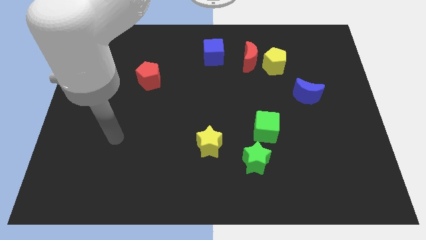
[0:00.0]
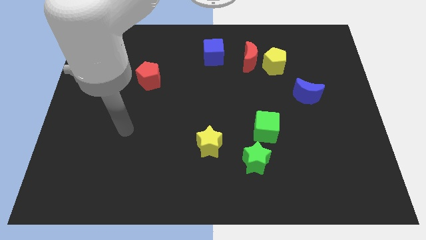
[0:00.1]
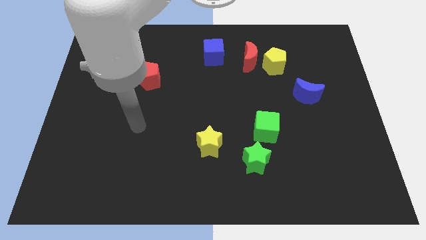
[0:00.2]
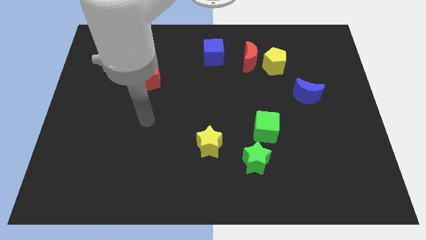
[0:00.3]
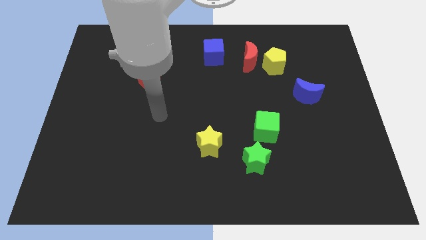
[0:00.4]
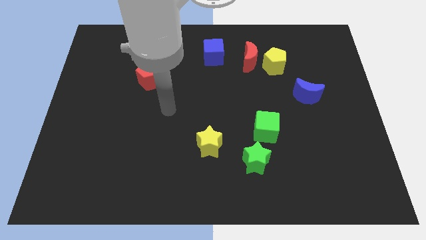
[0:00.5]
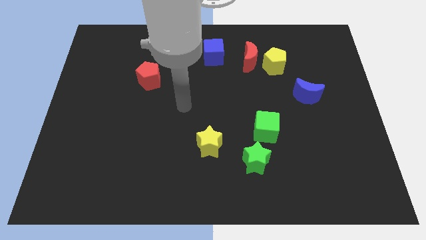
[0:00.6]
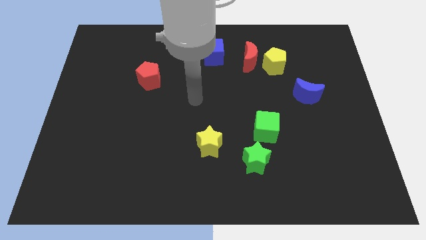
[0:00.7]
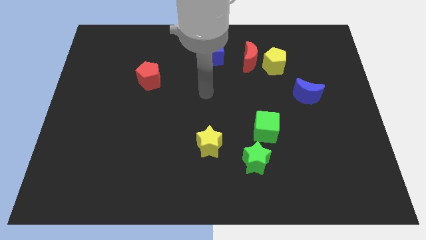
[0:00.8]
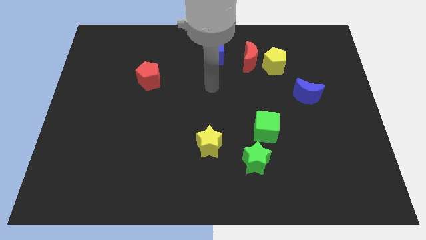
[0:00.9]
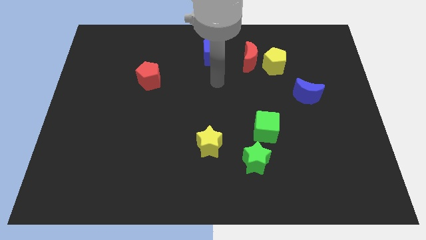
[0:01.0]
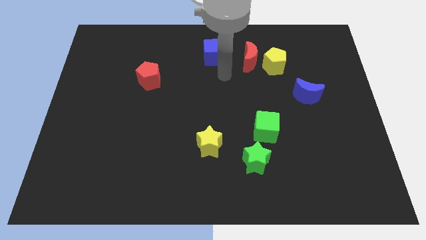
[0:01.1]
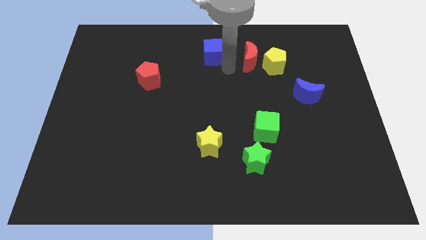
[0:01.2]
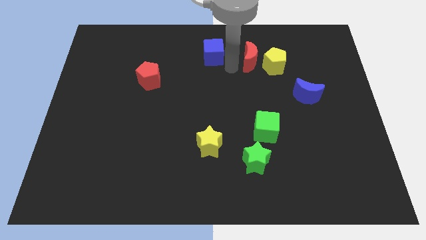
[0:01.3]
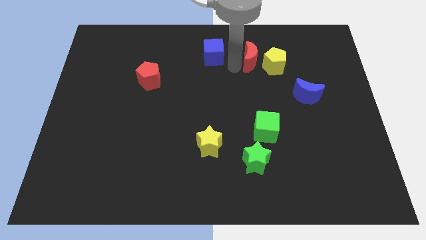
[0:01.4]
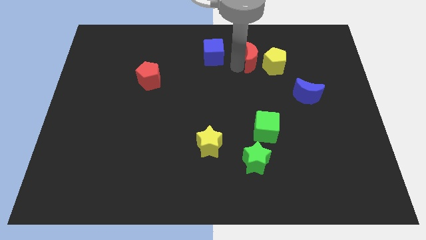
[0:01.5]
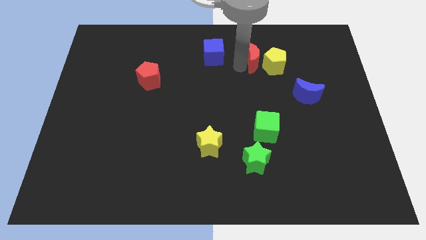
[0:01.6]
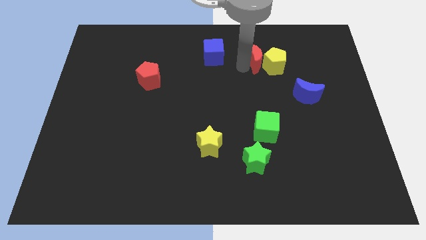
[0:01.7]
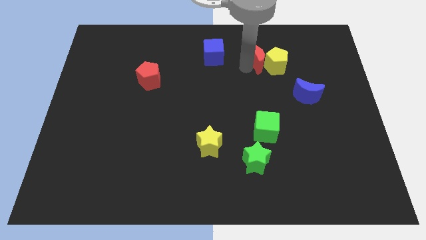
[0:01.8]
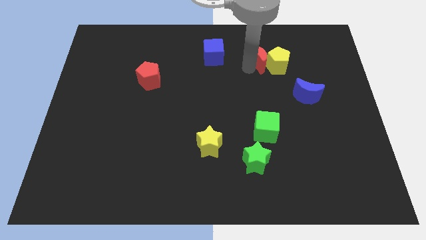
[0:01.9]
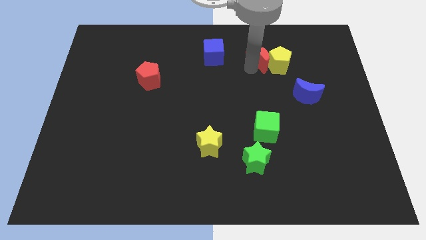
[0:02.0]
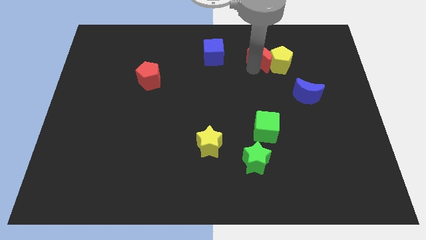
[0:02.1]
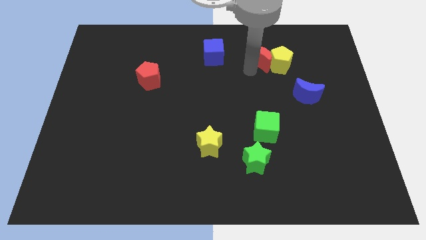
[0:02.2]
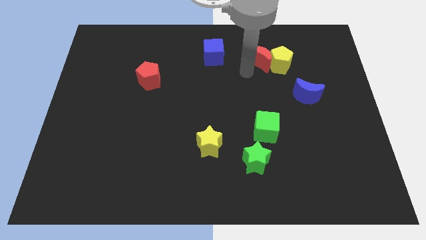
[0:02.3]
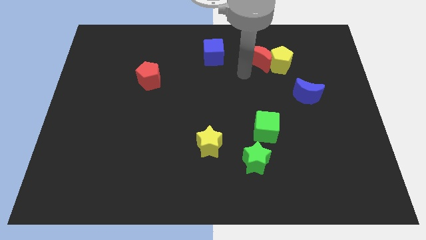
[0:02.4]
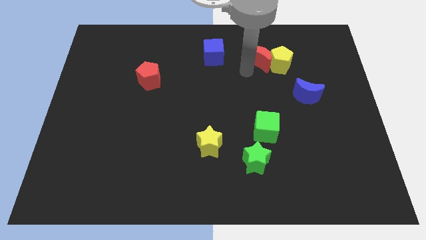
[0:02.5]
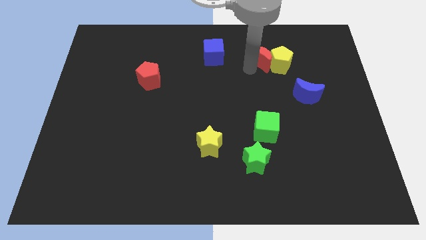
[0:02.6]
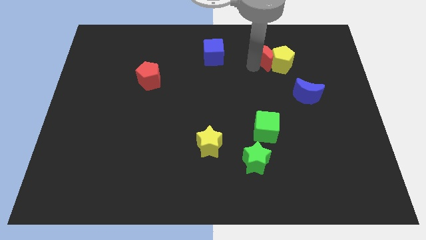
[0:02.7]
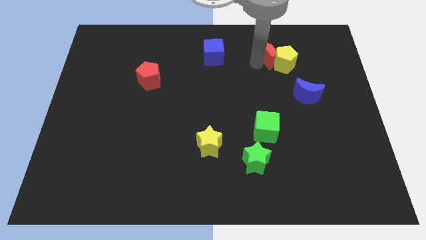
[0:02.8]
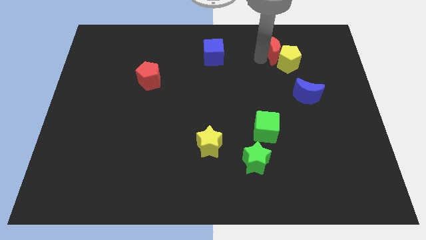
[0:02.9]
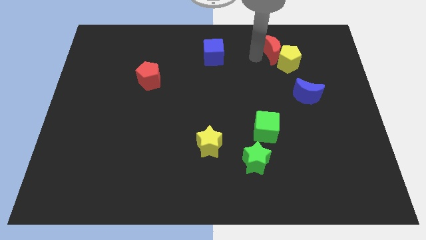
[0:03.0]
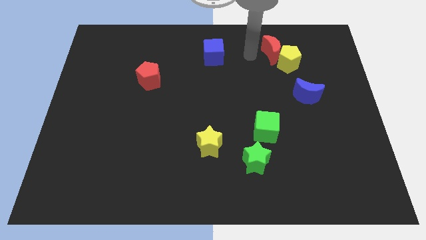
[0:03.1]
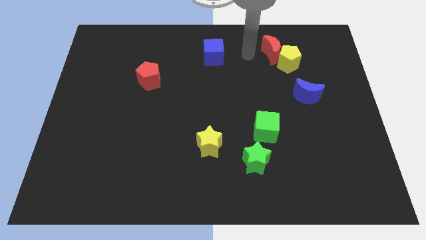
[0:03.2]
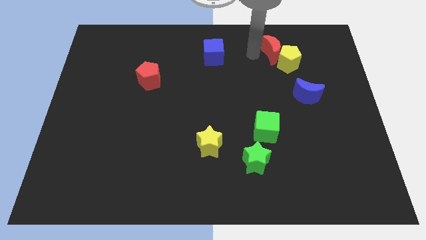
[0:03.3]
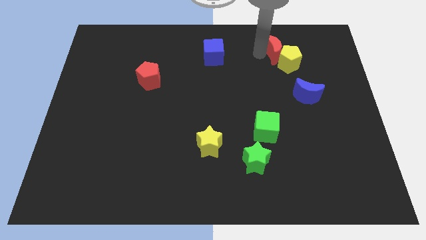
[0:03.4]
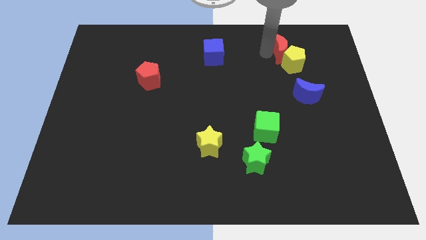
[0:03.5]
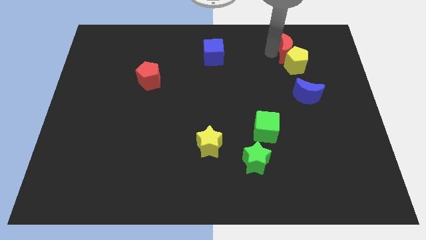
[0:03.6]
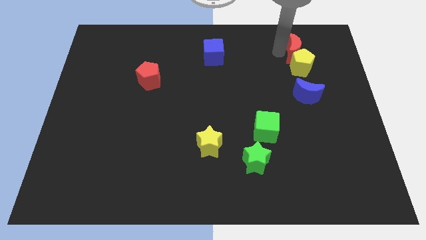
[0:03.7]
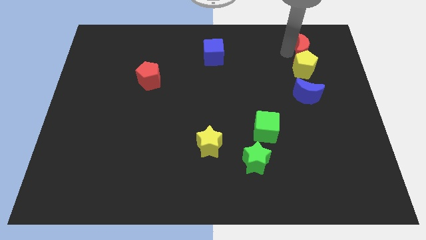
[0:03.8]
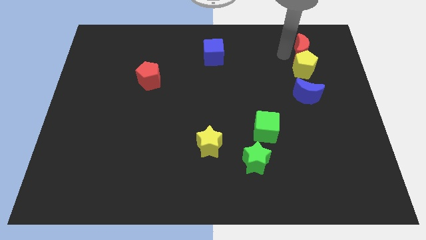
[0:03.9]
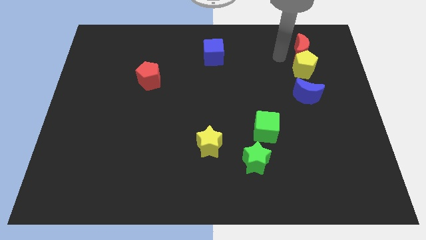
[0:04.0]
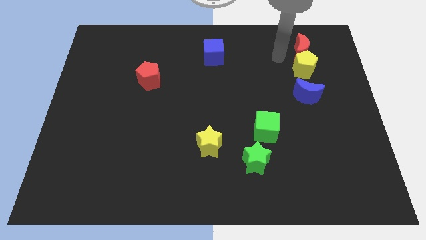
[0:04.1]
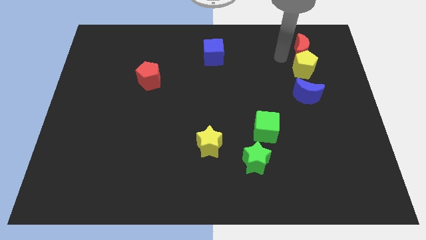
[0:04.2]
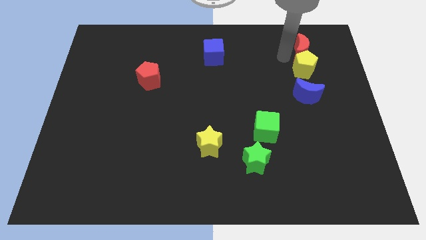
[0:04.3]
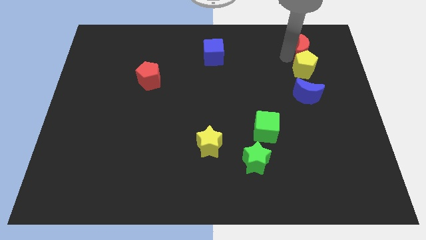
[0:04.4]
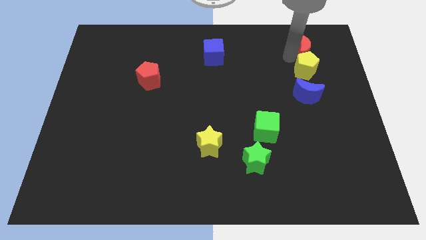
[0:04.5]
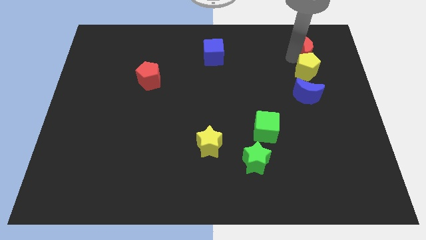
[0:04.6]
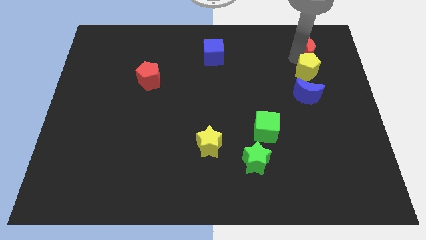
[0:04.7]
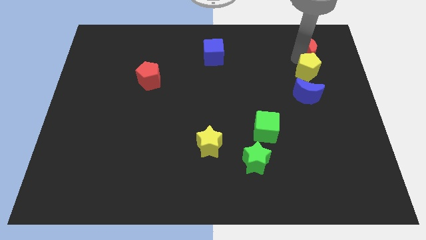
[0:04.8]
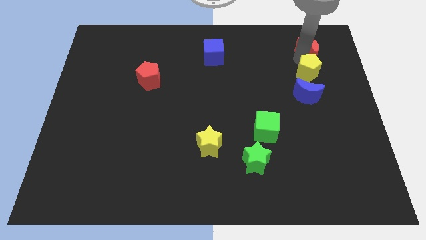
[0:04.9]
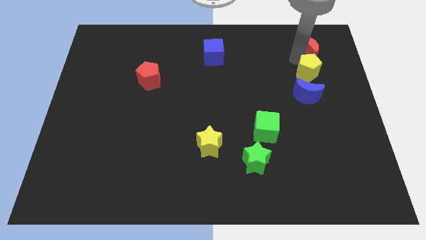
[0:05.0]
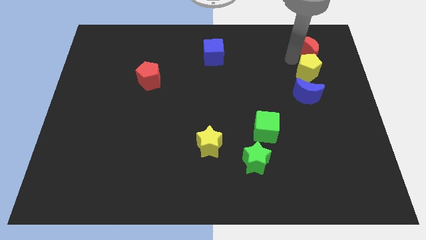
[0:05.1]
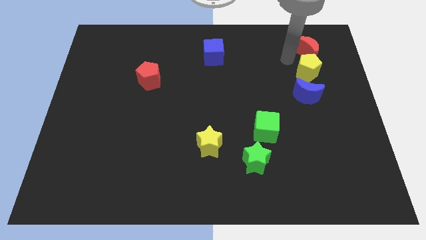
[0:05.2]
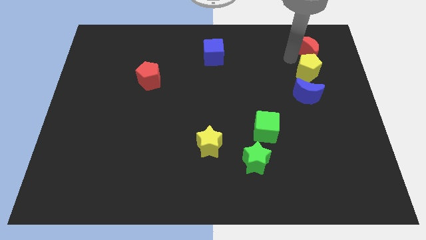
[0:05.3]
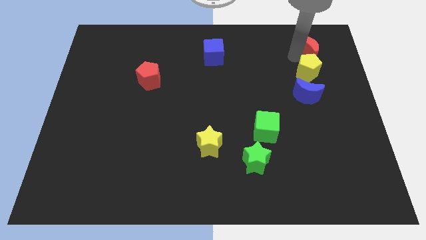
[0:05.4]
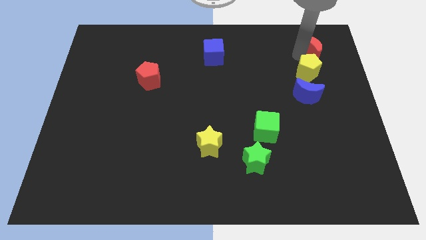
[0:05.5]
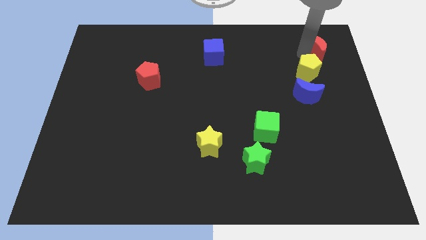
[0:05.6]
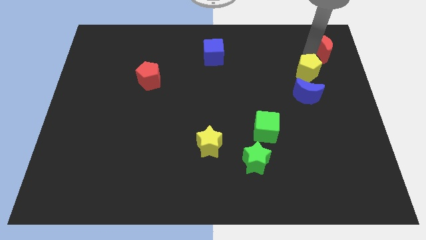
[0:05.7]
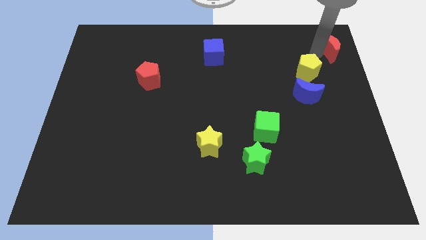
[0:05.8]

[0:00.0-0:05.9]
push the red moon to the top right of the board

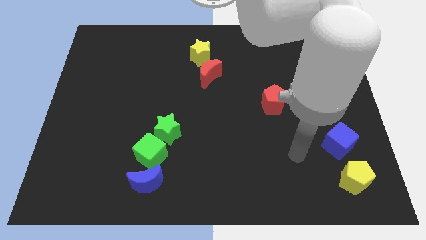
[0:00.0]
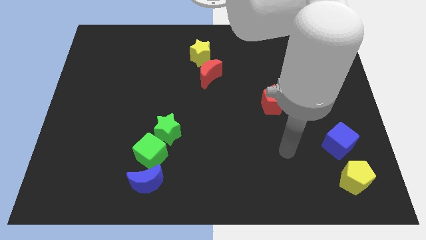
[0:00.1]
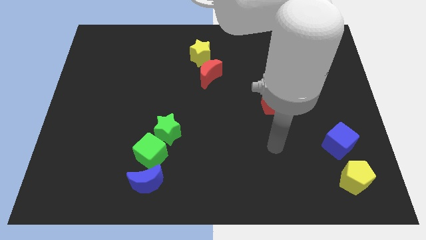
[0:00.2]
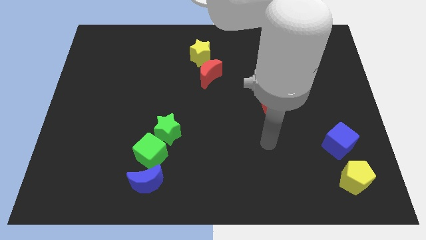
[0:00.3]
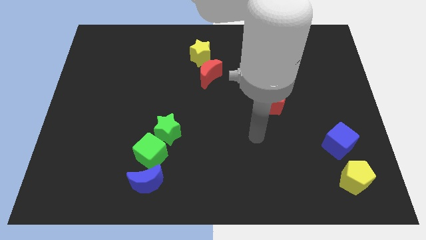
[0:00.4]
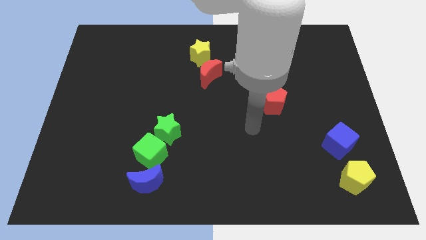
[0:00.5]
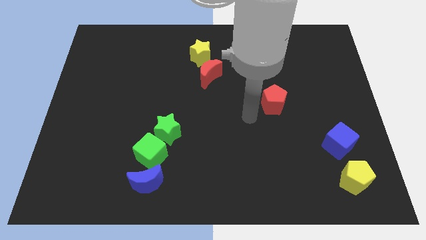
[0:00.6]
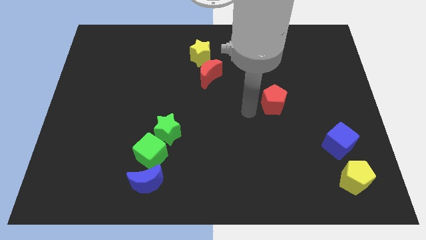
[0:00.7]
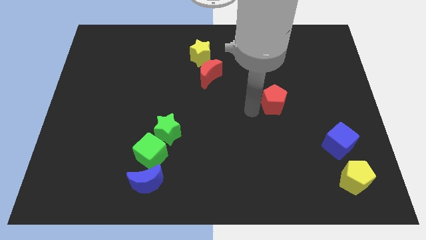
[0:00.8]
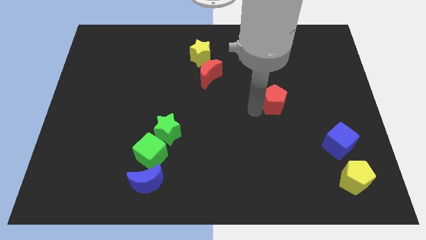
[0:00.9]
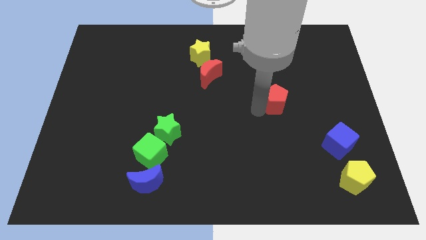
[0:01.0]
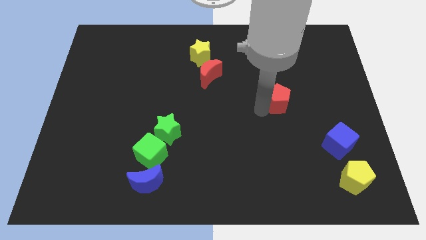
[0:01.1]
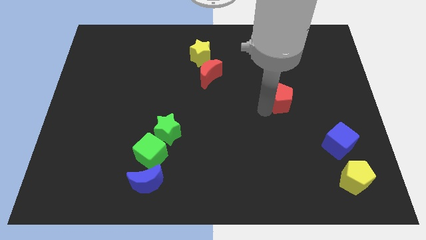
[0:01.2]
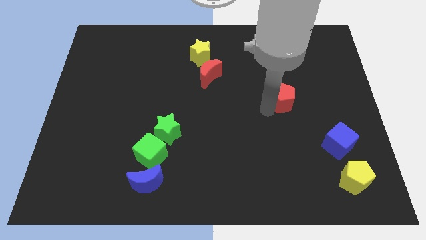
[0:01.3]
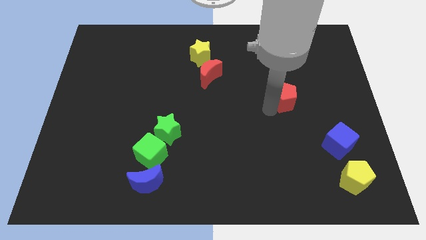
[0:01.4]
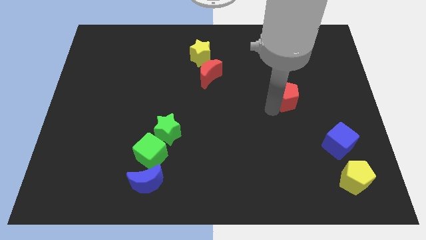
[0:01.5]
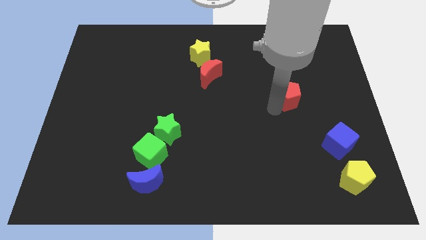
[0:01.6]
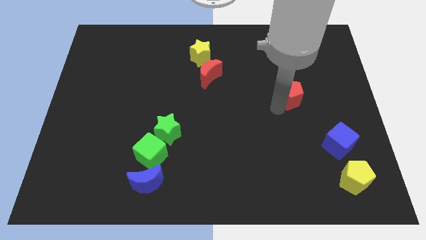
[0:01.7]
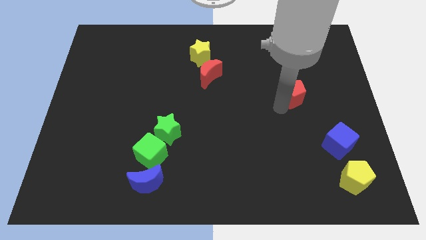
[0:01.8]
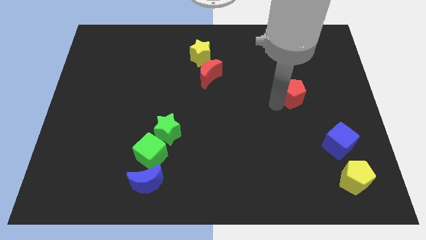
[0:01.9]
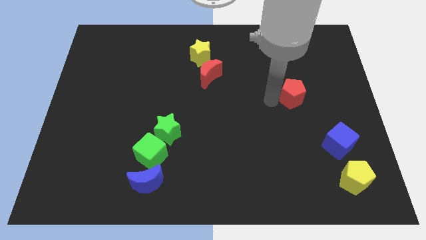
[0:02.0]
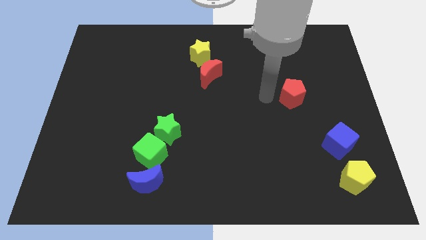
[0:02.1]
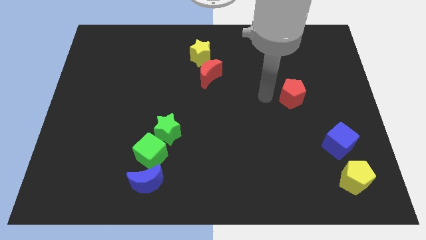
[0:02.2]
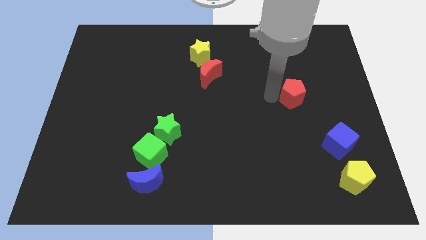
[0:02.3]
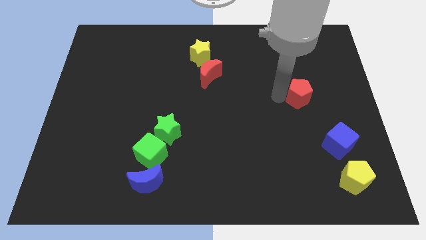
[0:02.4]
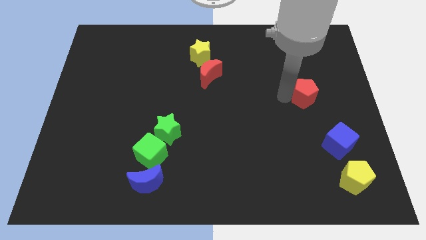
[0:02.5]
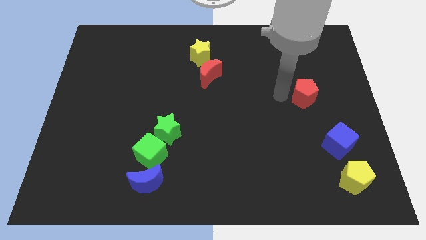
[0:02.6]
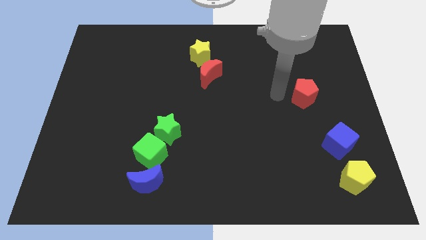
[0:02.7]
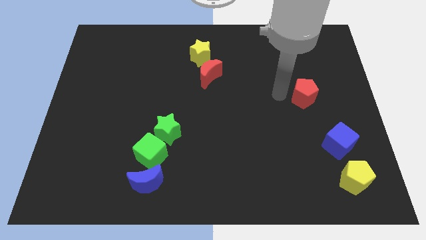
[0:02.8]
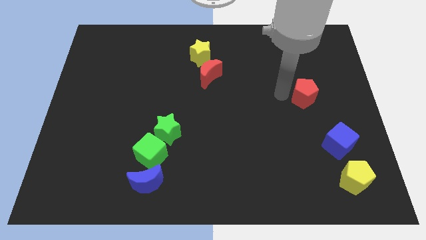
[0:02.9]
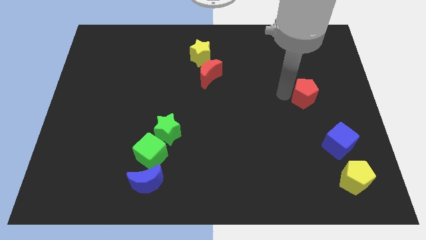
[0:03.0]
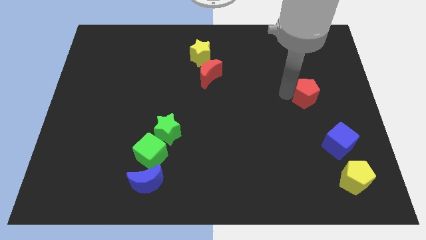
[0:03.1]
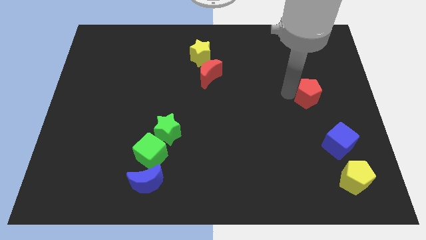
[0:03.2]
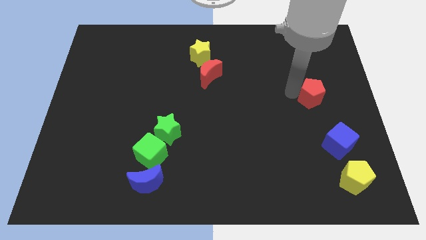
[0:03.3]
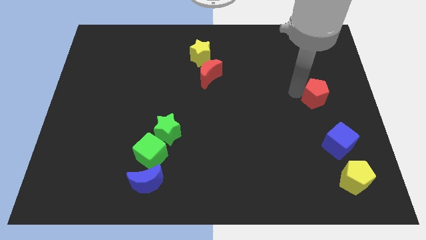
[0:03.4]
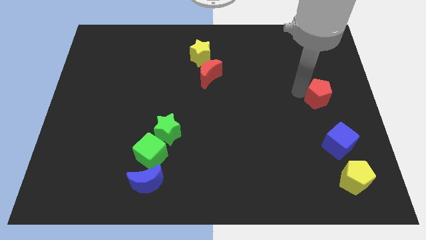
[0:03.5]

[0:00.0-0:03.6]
put the red pentagon to the right side
